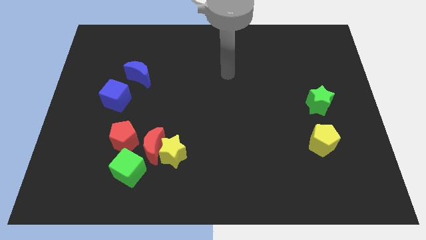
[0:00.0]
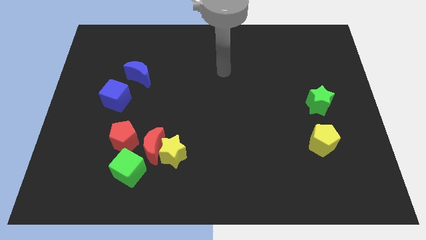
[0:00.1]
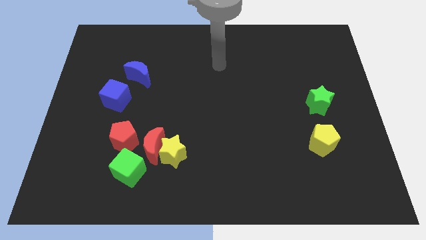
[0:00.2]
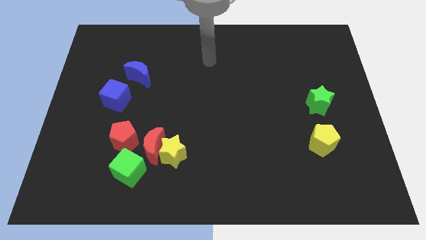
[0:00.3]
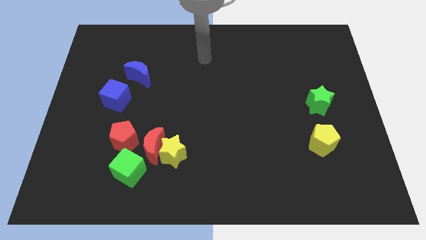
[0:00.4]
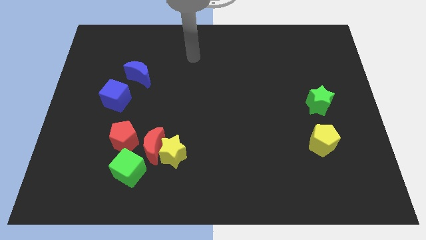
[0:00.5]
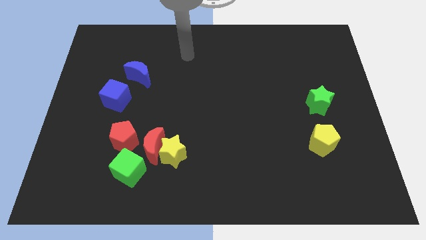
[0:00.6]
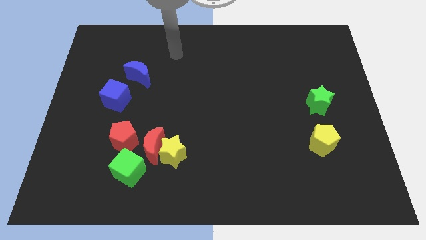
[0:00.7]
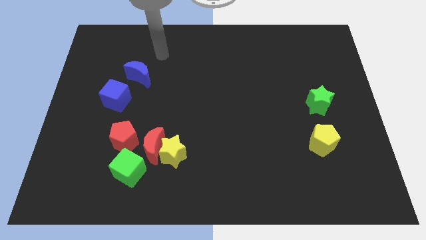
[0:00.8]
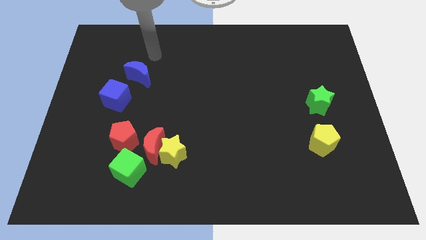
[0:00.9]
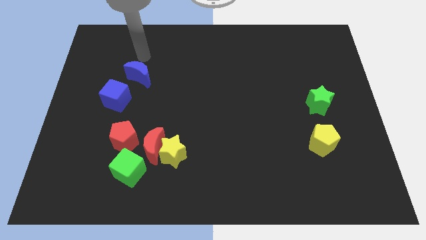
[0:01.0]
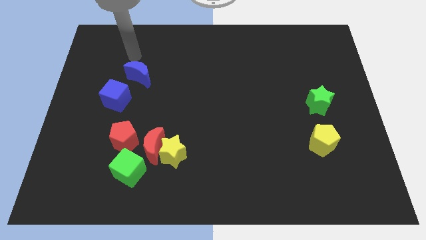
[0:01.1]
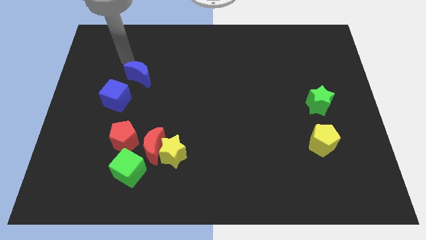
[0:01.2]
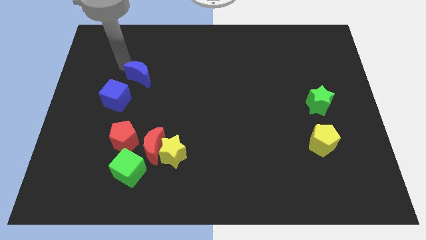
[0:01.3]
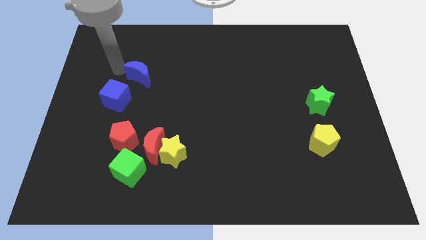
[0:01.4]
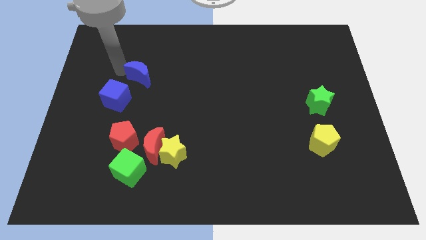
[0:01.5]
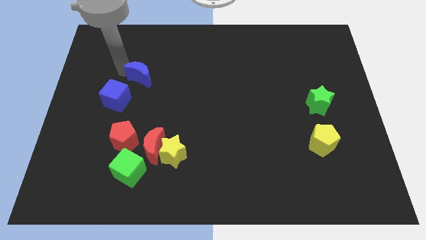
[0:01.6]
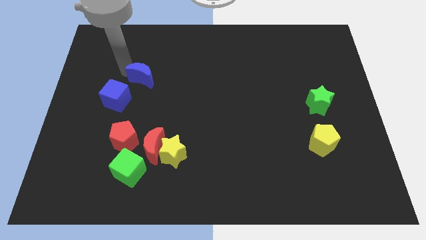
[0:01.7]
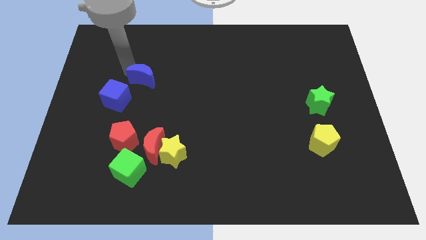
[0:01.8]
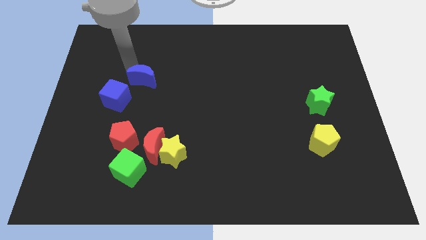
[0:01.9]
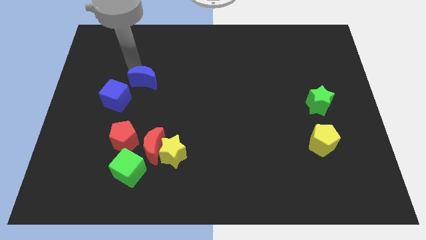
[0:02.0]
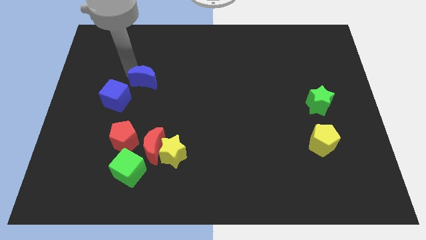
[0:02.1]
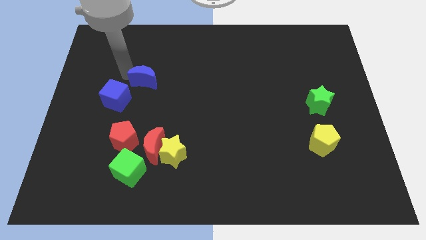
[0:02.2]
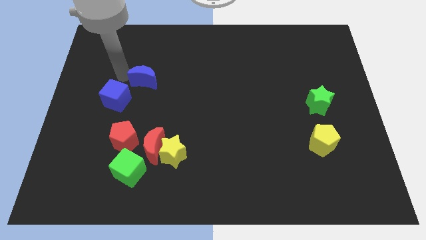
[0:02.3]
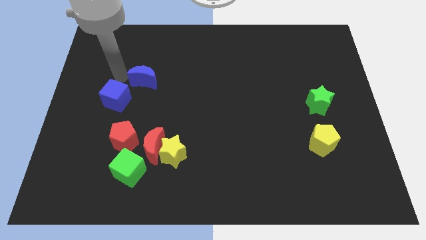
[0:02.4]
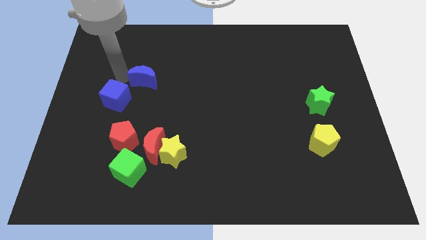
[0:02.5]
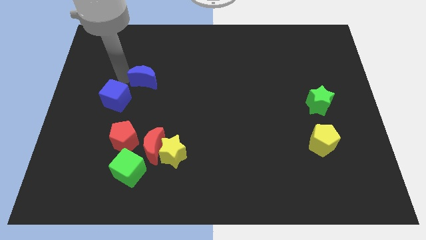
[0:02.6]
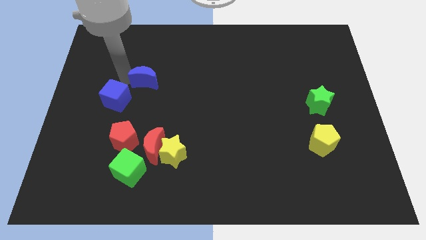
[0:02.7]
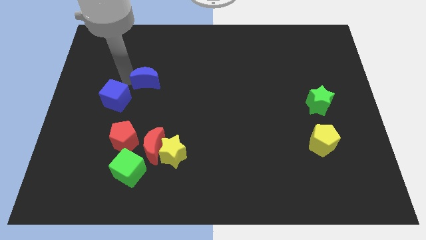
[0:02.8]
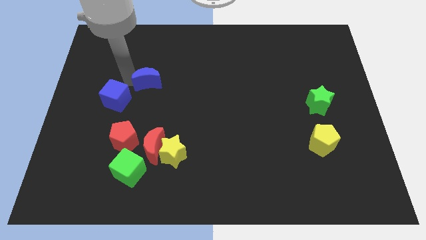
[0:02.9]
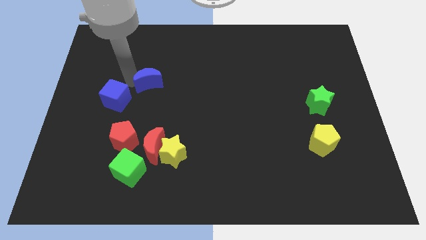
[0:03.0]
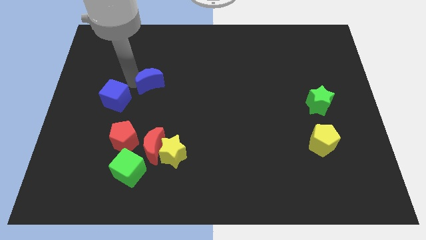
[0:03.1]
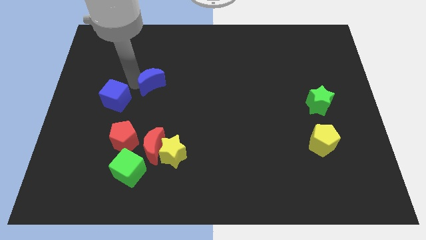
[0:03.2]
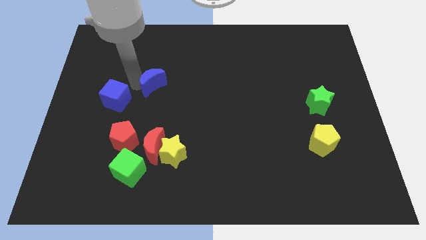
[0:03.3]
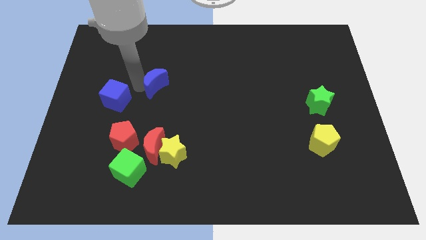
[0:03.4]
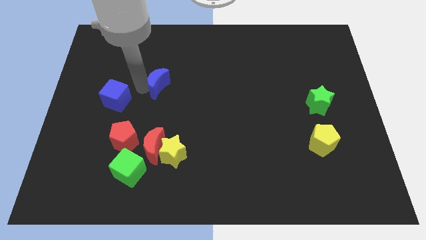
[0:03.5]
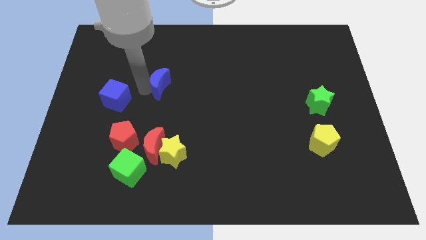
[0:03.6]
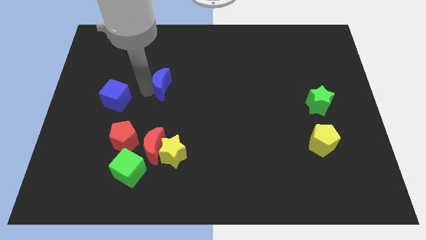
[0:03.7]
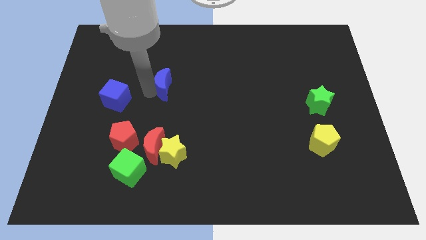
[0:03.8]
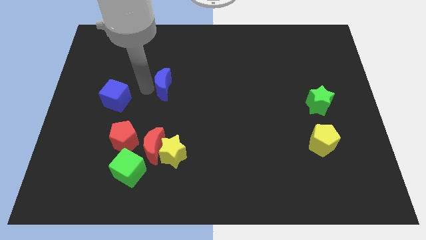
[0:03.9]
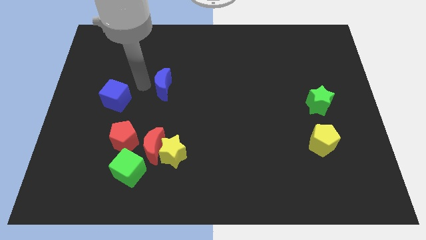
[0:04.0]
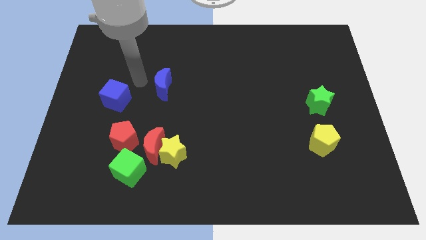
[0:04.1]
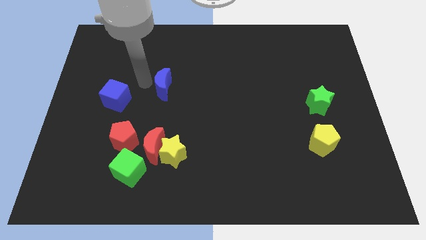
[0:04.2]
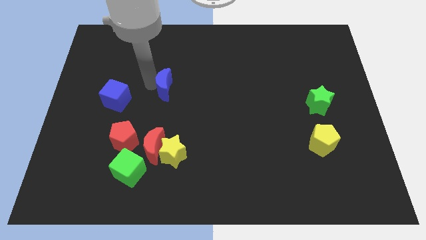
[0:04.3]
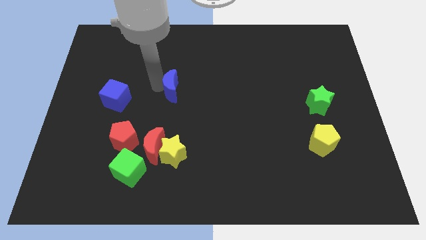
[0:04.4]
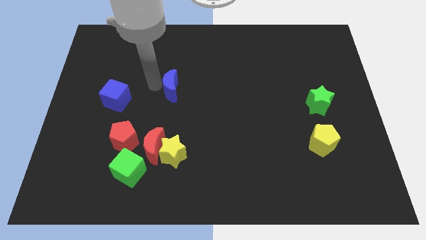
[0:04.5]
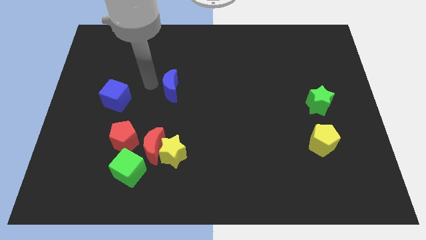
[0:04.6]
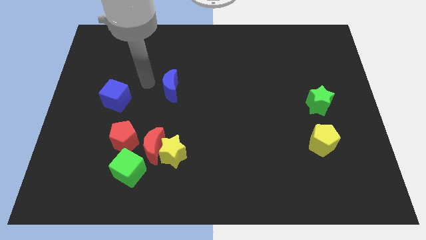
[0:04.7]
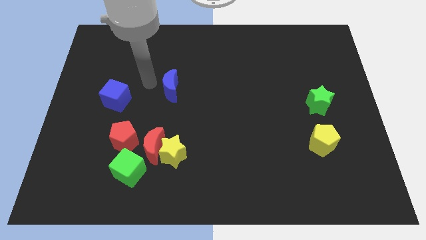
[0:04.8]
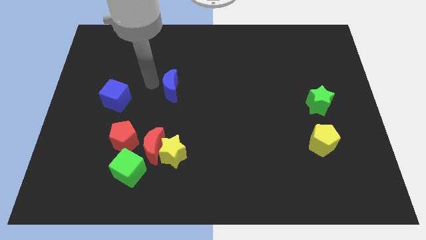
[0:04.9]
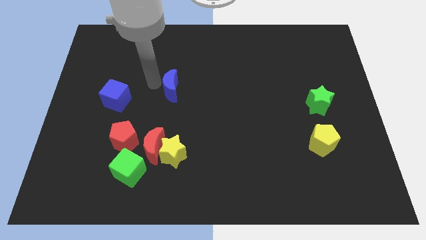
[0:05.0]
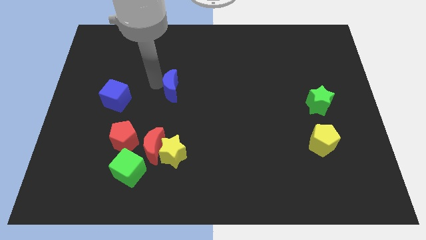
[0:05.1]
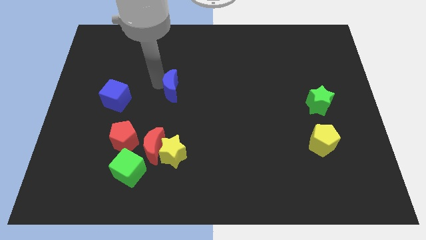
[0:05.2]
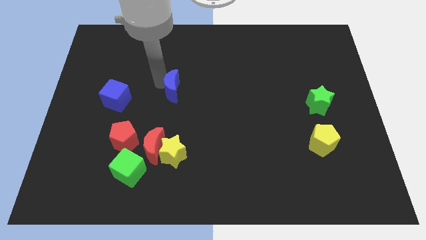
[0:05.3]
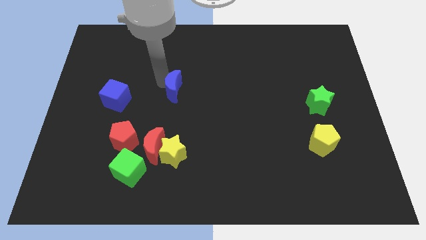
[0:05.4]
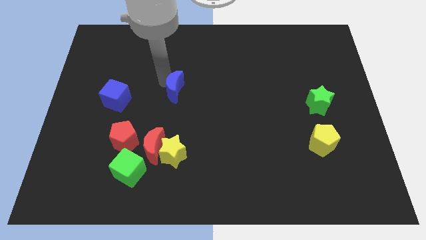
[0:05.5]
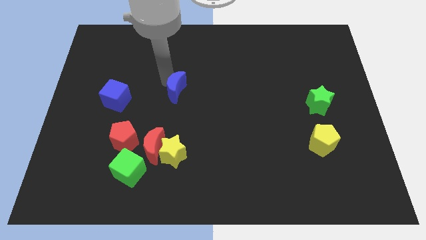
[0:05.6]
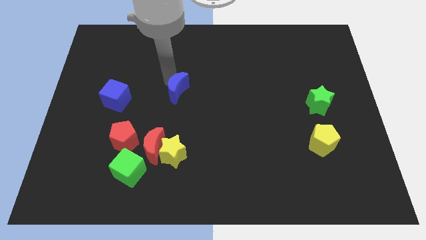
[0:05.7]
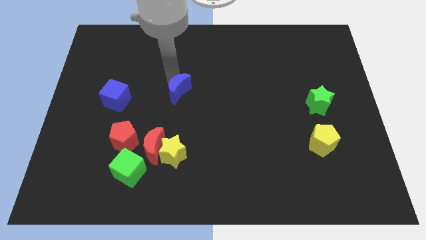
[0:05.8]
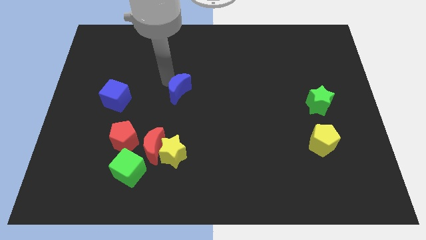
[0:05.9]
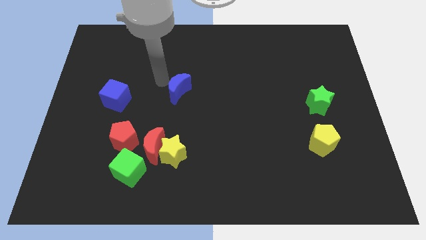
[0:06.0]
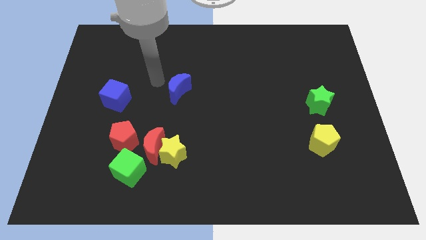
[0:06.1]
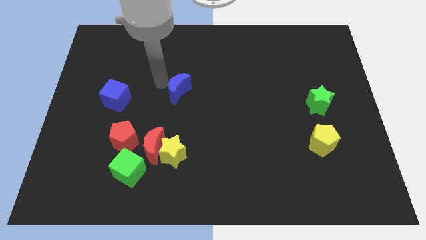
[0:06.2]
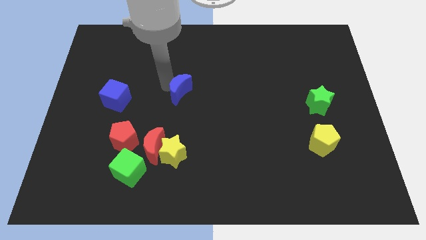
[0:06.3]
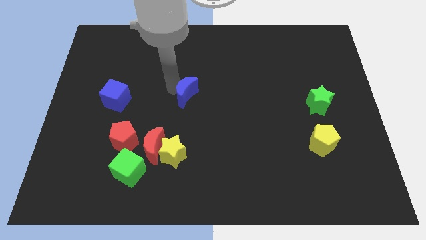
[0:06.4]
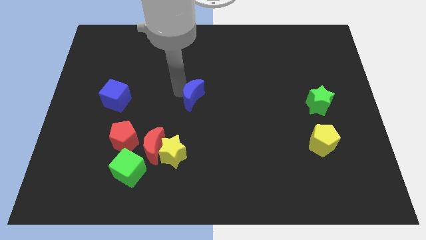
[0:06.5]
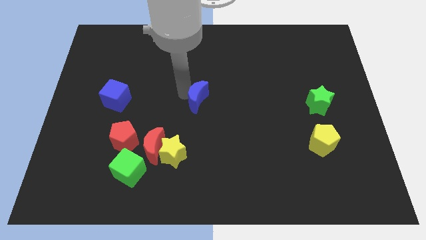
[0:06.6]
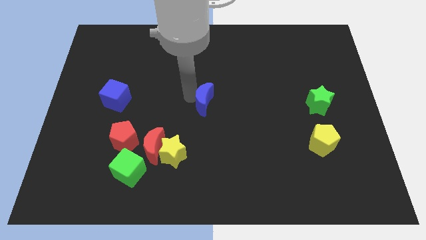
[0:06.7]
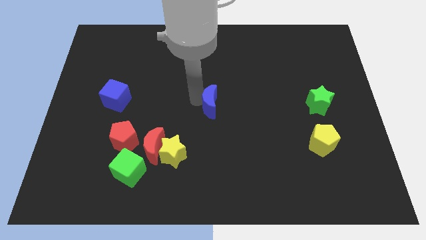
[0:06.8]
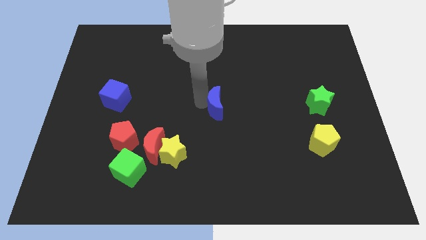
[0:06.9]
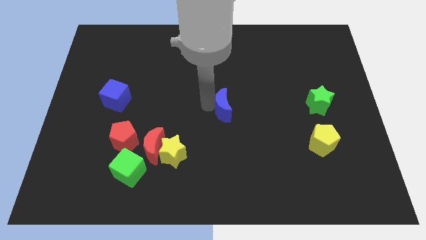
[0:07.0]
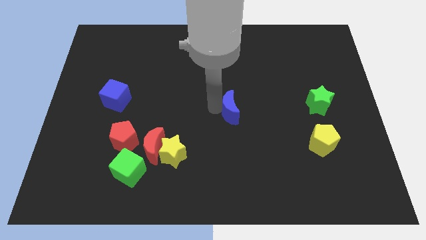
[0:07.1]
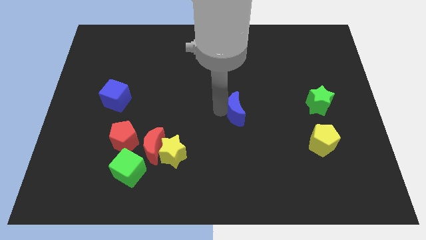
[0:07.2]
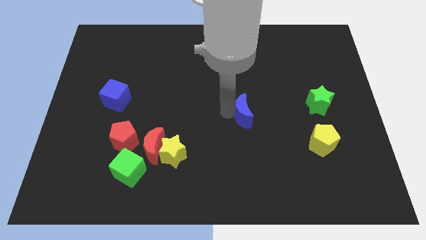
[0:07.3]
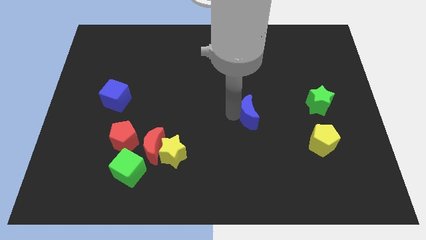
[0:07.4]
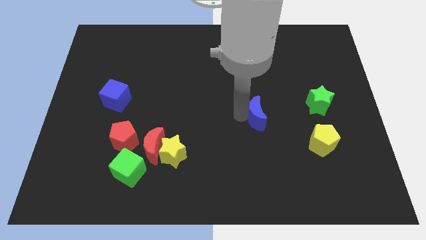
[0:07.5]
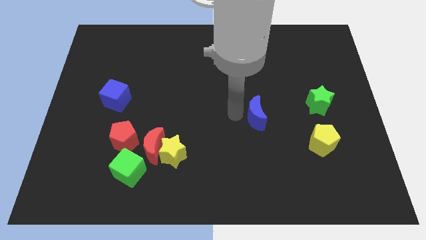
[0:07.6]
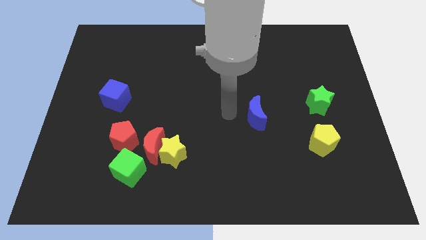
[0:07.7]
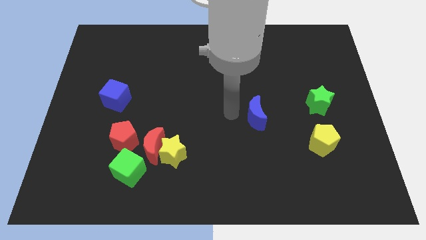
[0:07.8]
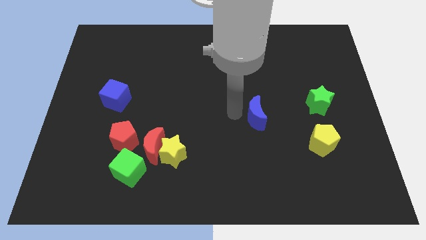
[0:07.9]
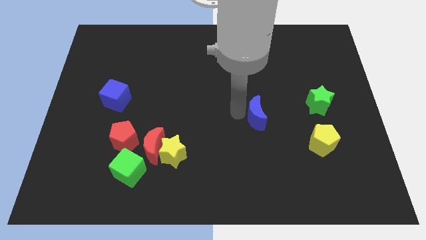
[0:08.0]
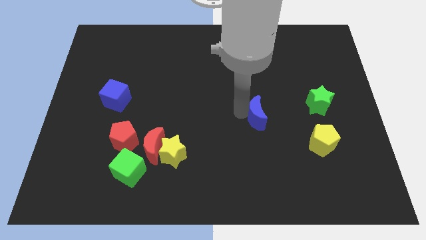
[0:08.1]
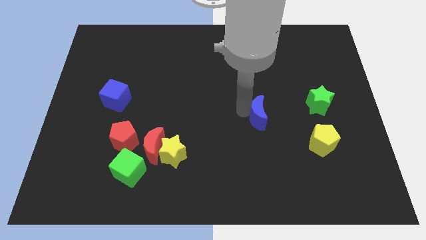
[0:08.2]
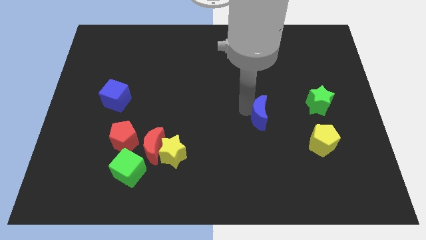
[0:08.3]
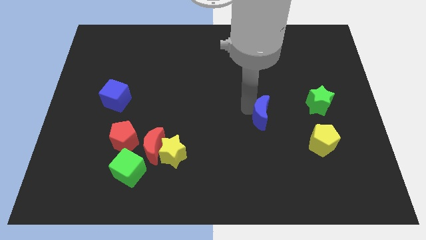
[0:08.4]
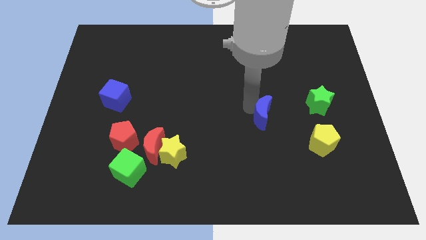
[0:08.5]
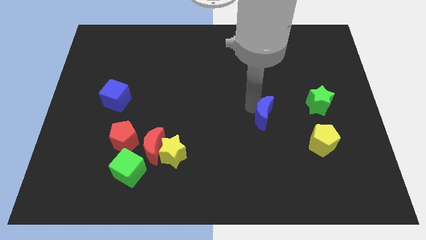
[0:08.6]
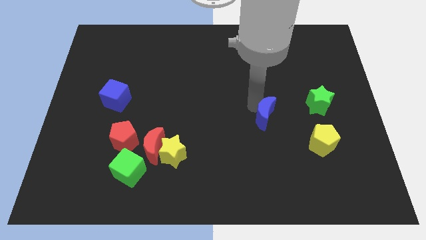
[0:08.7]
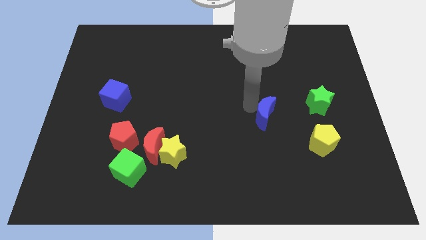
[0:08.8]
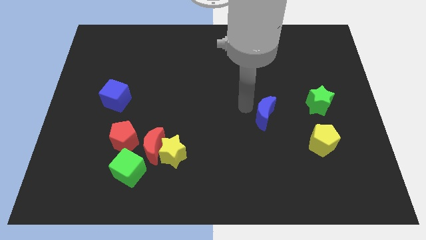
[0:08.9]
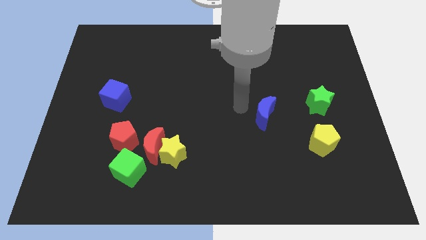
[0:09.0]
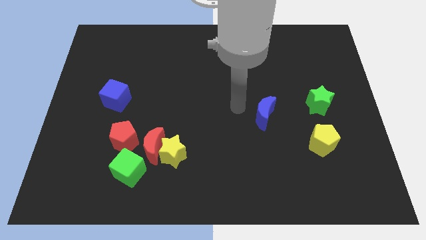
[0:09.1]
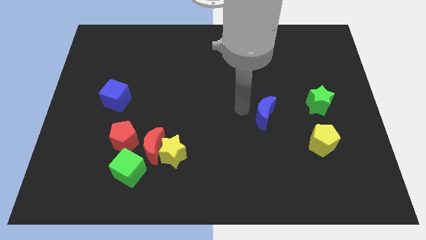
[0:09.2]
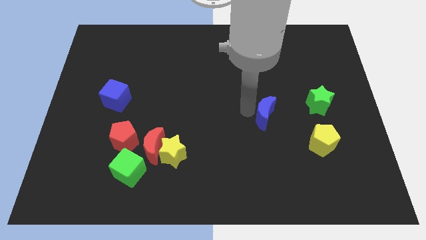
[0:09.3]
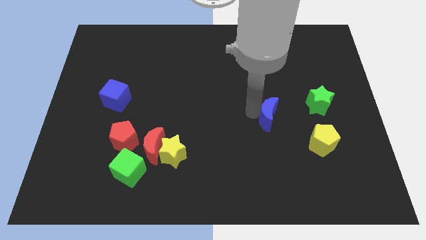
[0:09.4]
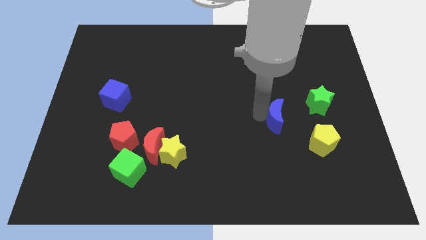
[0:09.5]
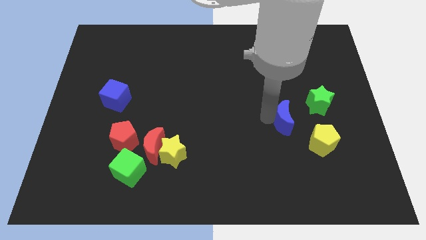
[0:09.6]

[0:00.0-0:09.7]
slide the blue moon diagonally down and to the left of the green star
